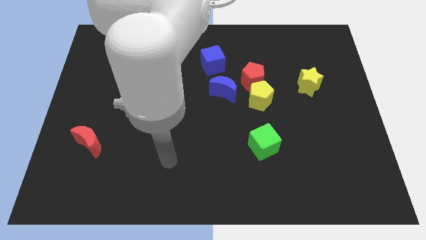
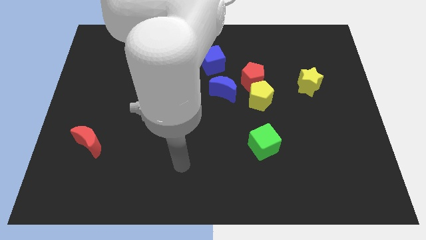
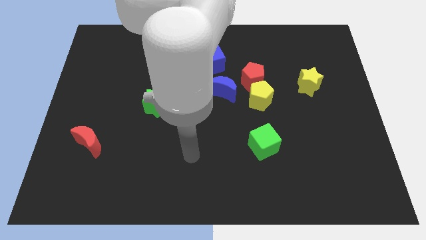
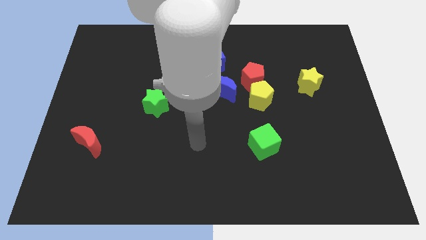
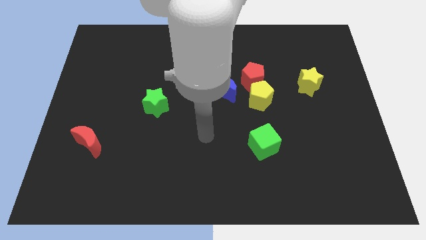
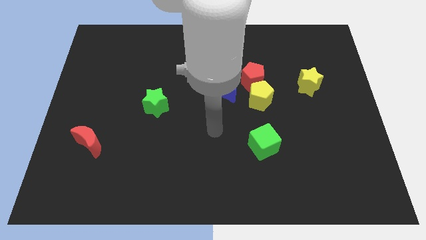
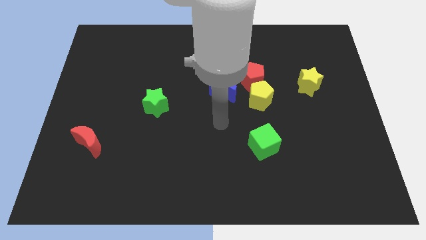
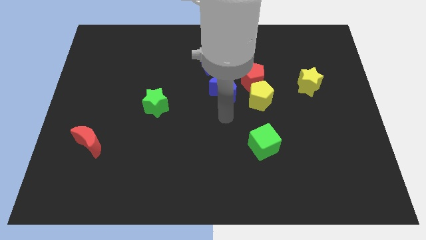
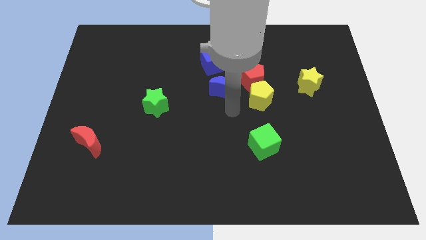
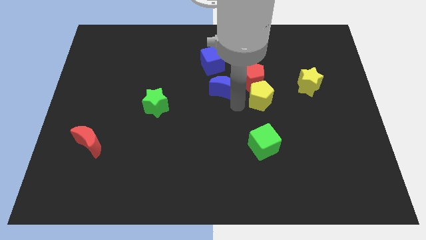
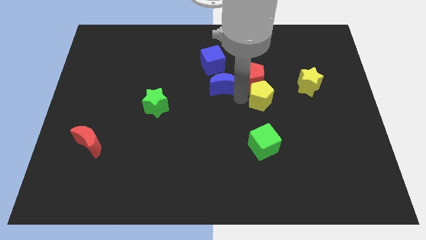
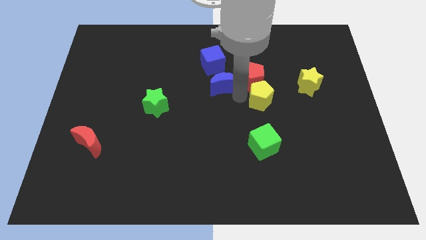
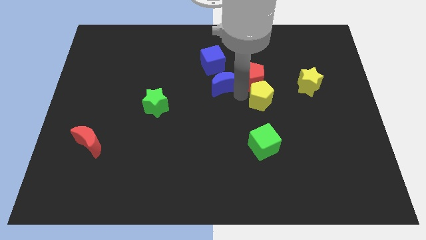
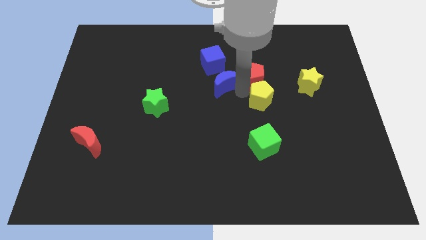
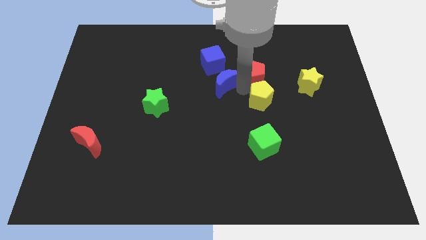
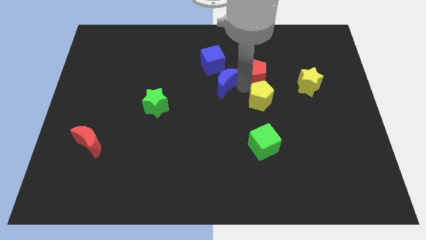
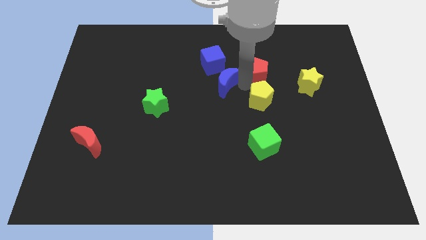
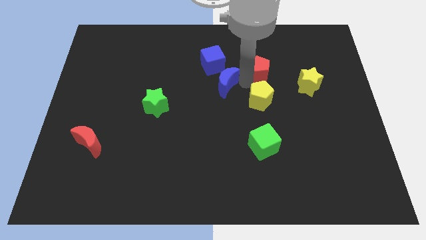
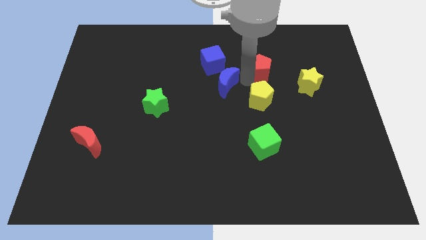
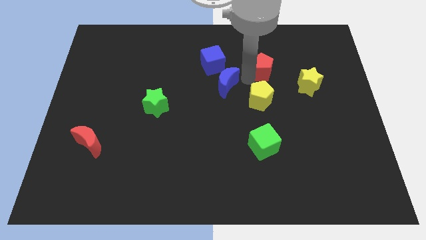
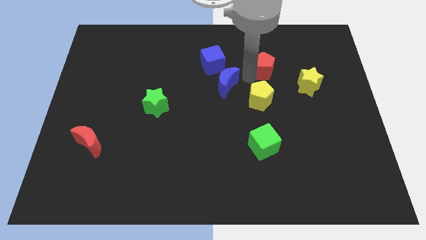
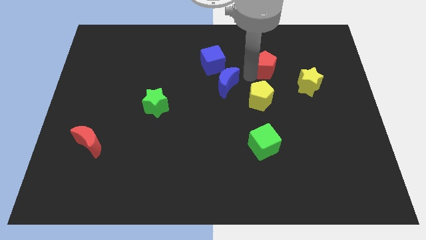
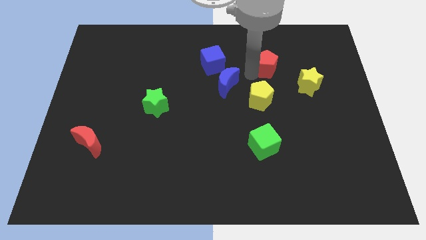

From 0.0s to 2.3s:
pull the red pentagon apart from the yellow pentagon and blue moon

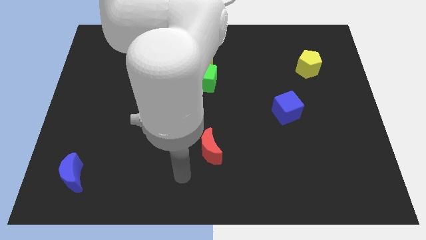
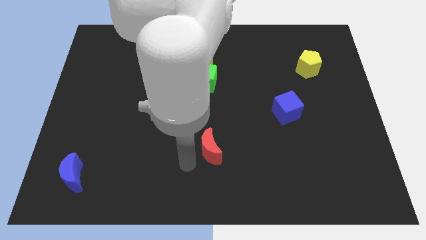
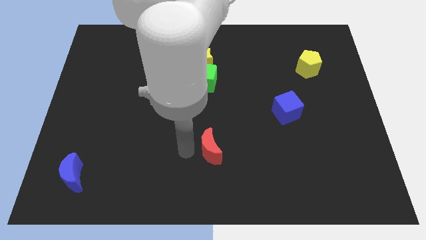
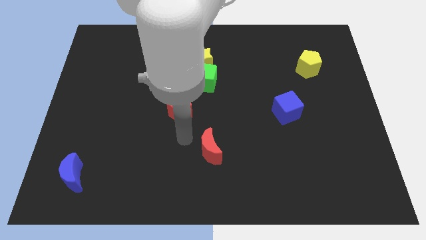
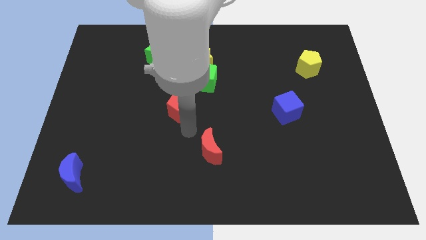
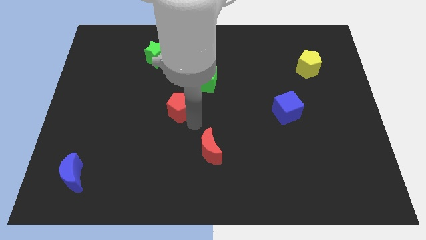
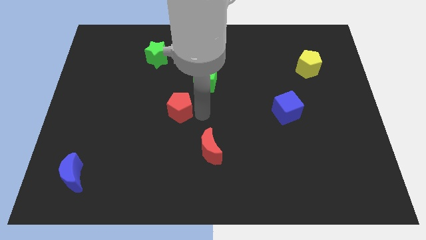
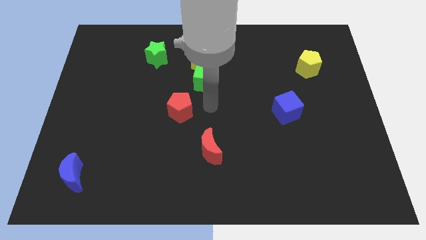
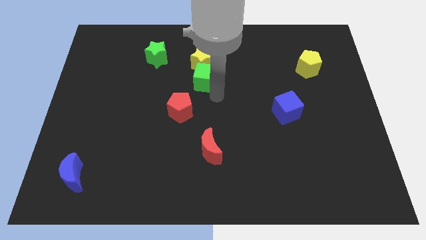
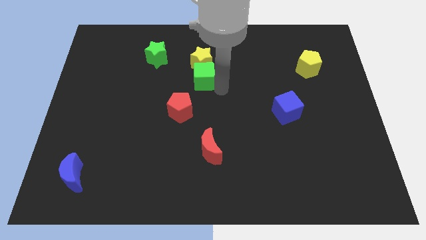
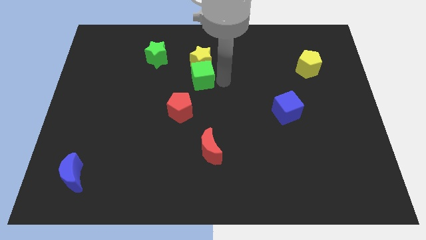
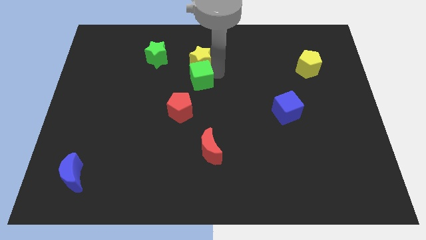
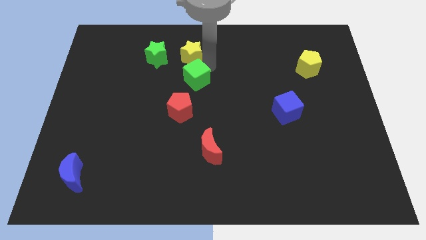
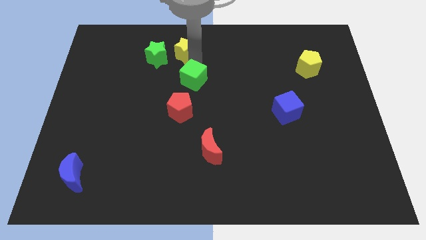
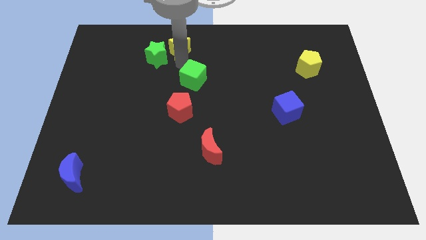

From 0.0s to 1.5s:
move the green cube away from the yellow star

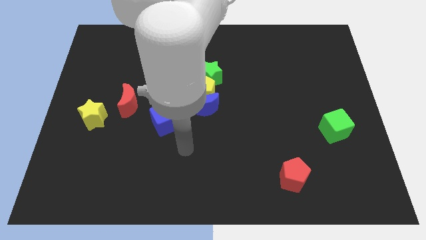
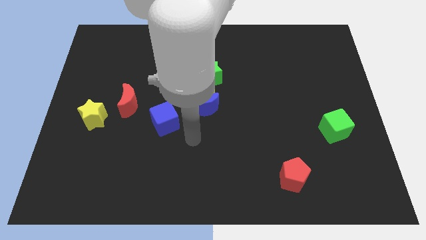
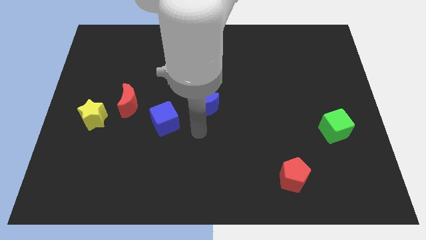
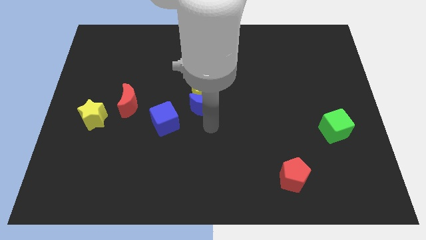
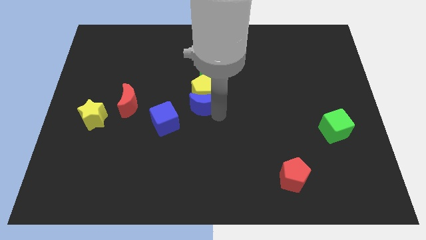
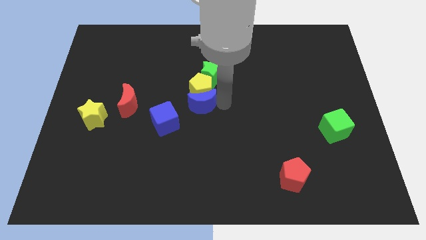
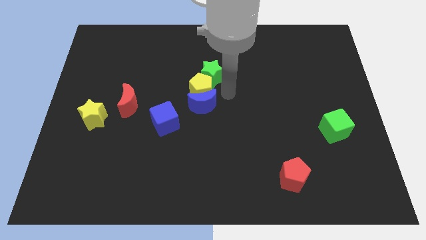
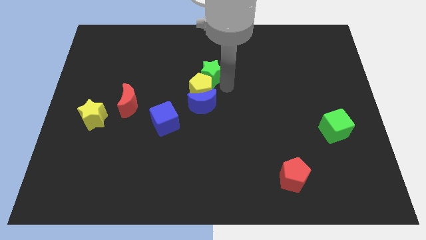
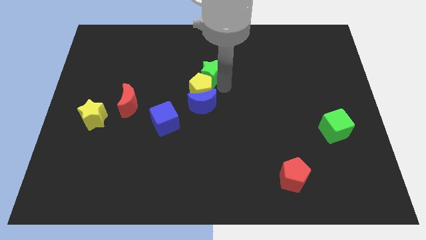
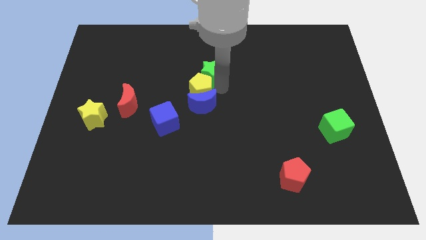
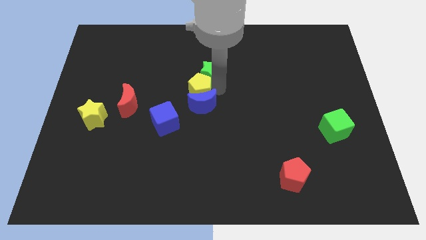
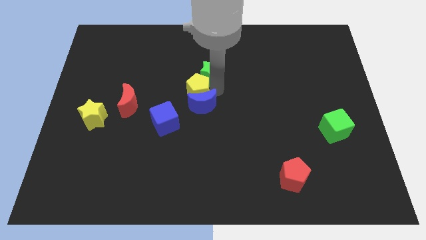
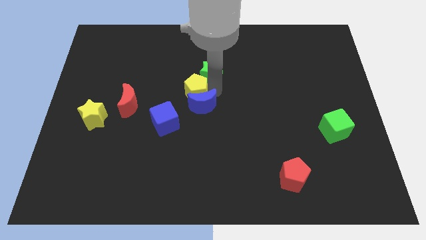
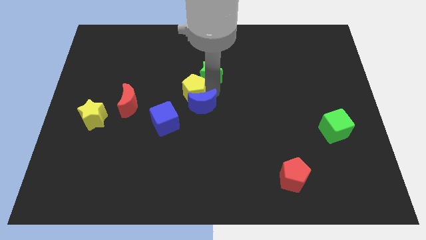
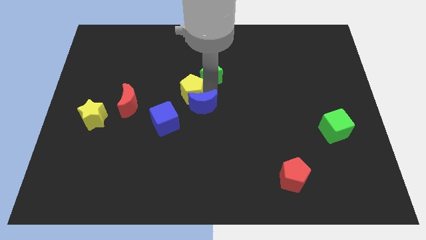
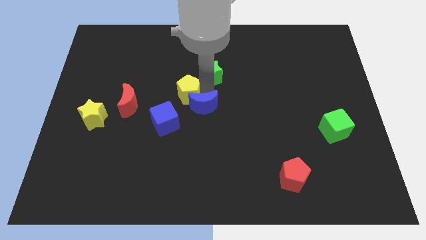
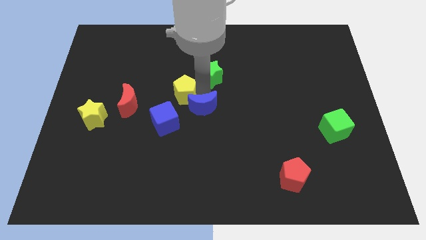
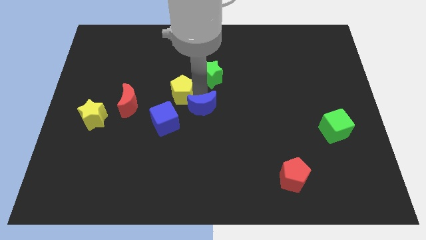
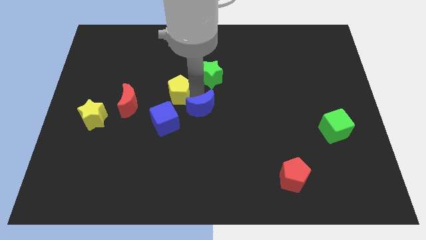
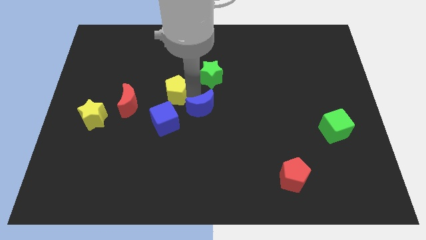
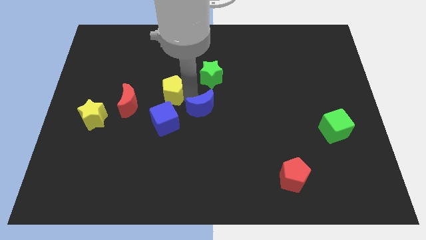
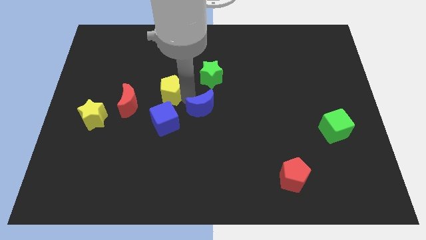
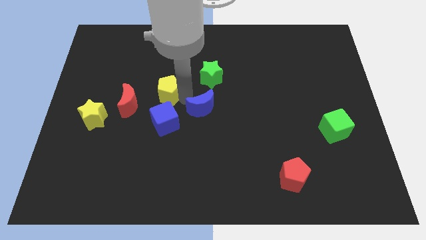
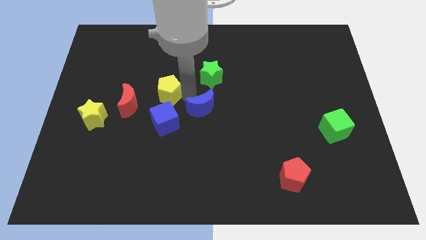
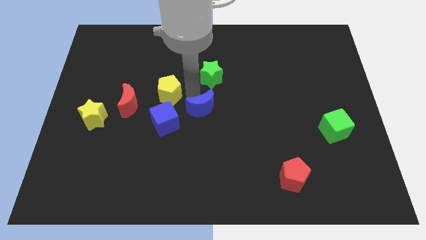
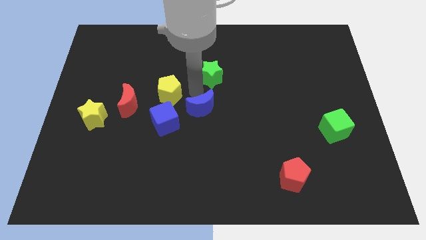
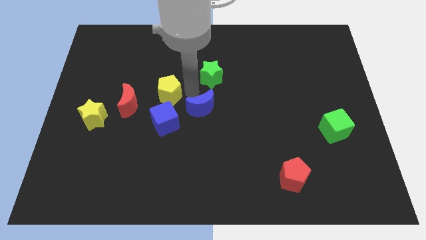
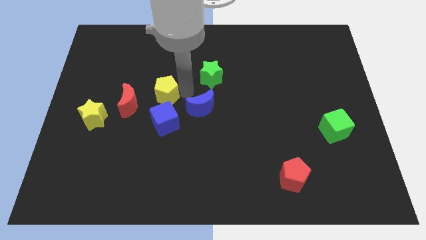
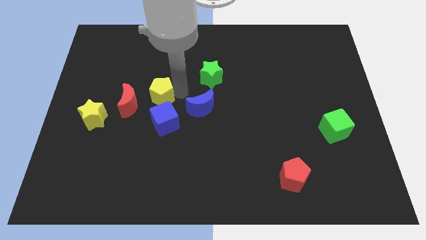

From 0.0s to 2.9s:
move the yellow pentagon away from the blue moon and green star

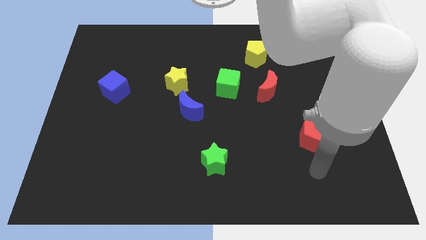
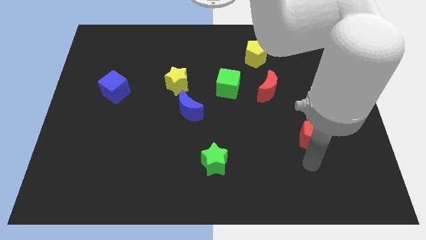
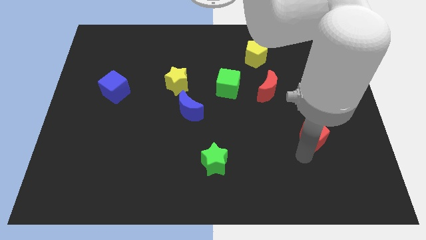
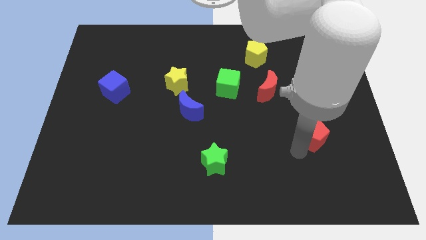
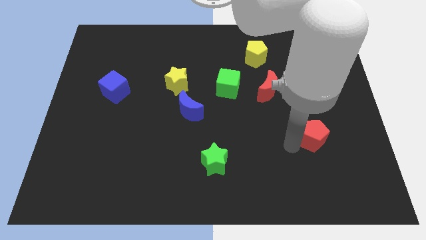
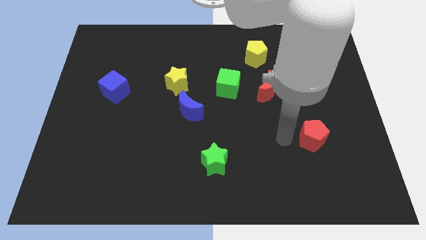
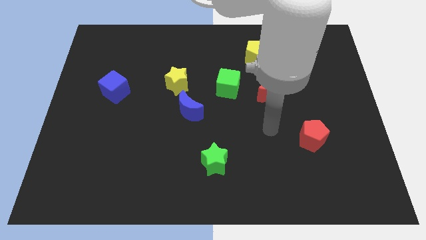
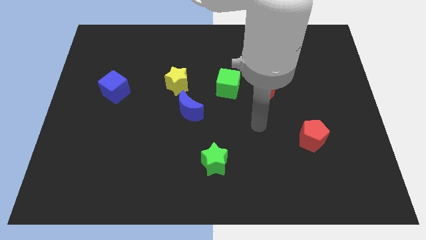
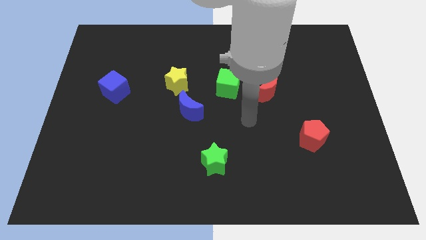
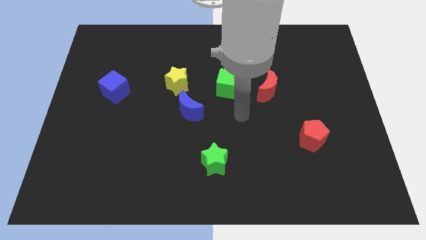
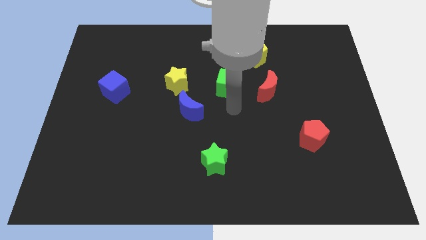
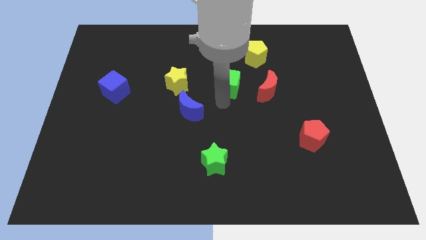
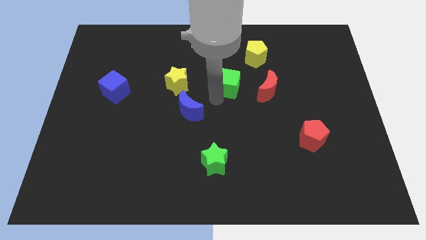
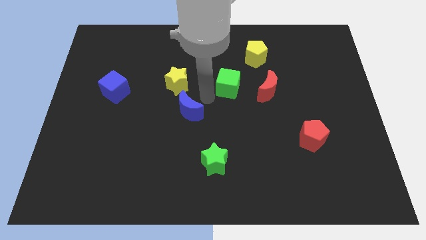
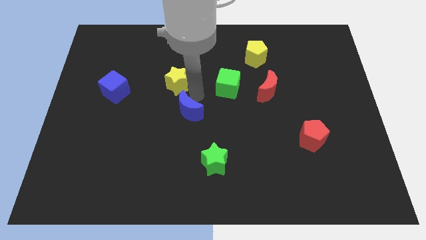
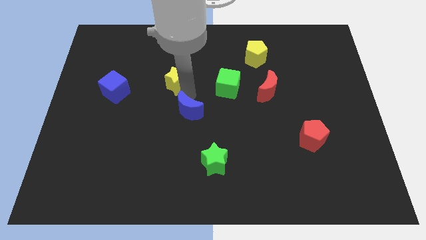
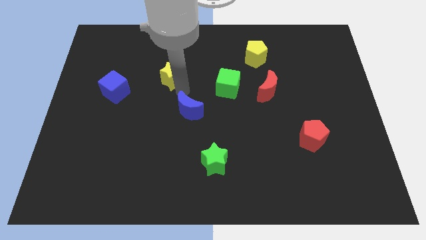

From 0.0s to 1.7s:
move the blue moon away from the yellow star

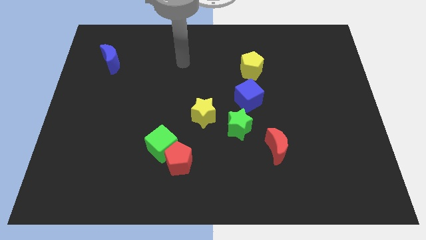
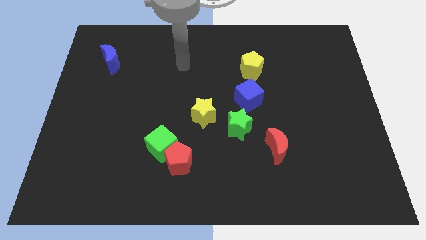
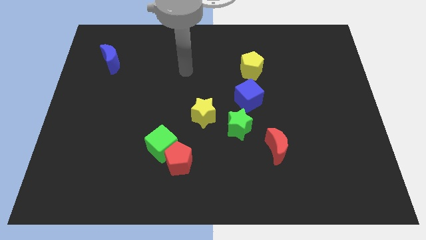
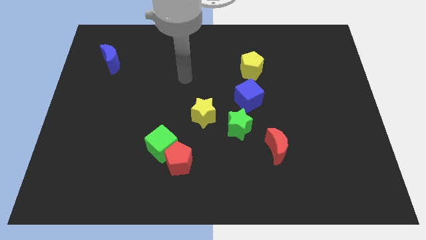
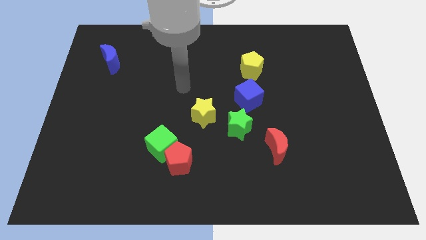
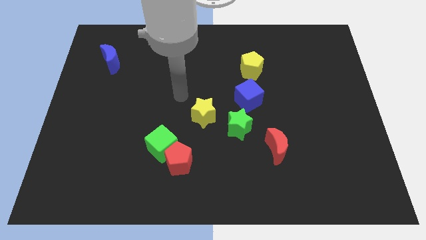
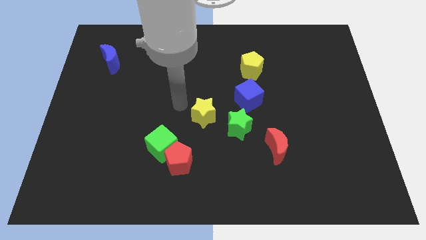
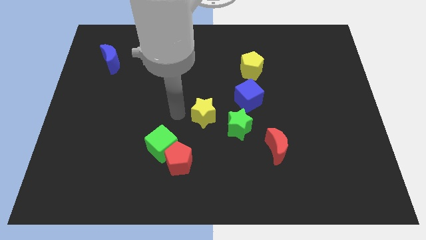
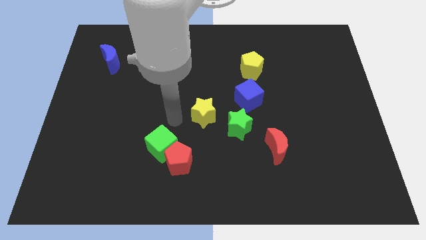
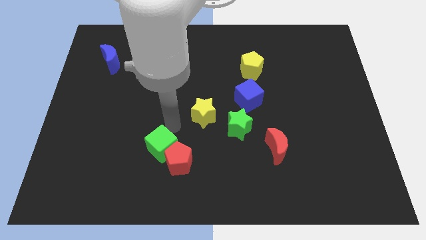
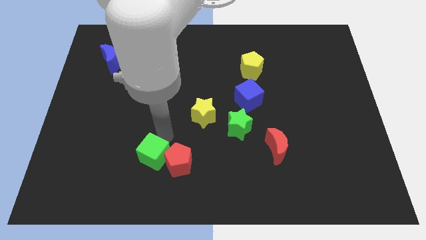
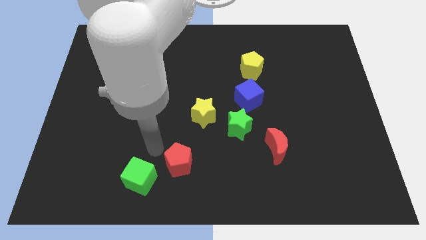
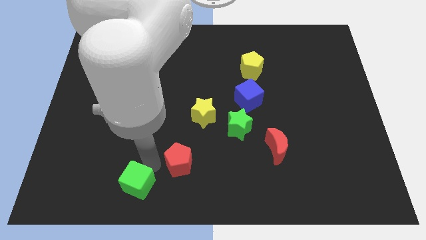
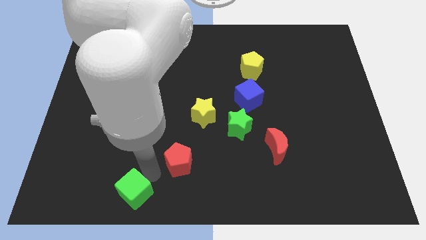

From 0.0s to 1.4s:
move the red pentagon away from the green cube
